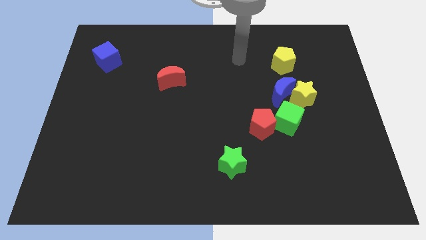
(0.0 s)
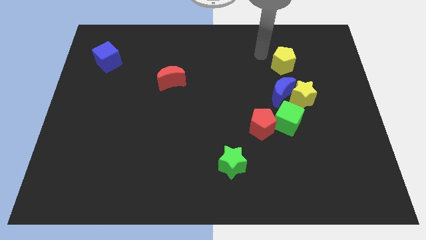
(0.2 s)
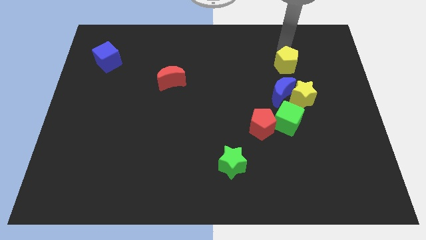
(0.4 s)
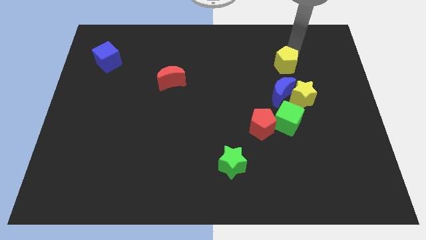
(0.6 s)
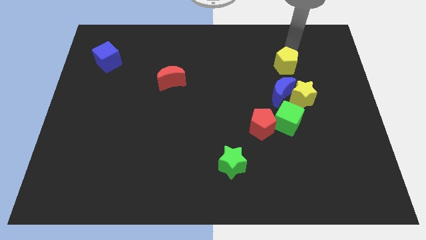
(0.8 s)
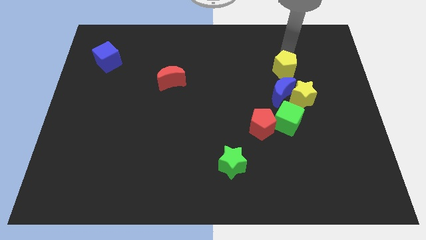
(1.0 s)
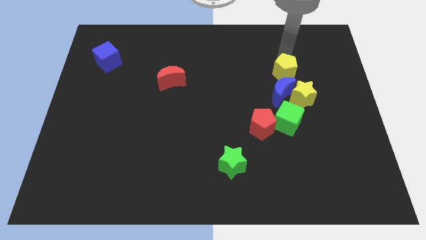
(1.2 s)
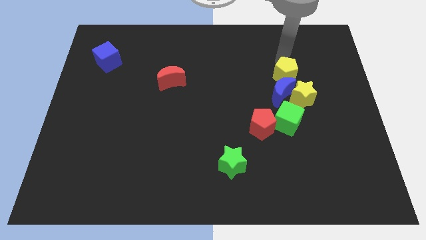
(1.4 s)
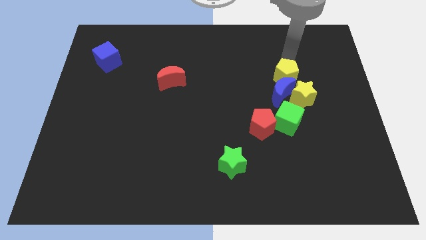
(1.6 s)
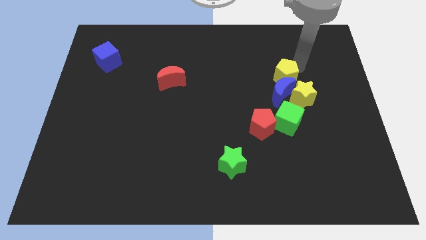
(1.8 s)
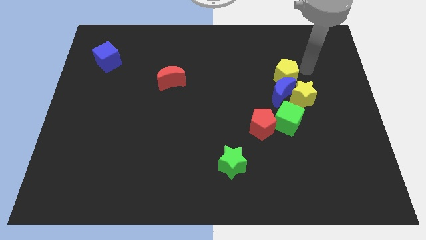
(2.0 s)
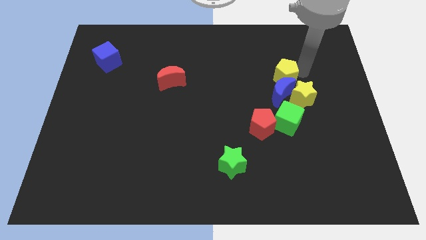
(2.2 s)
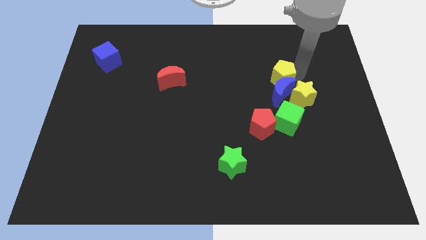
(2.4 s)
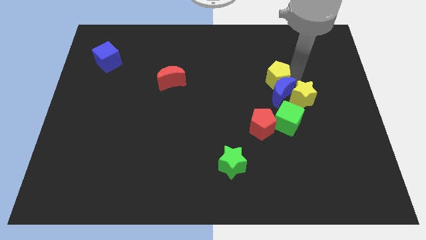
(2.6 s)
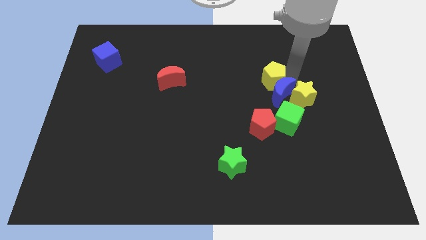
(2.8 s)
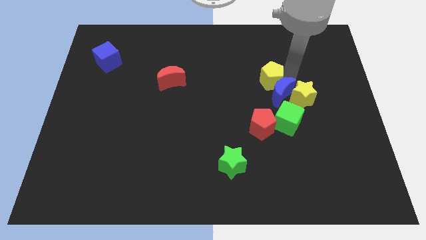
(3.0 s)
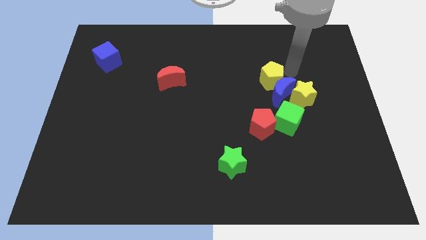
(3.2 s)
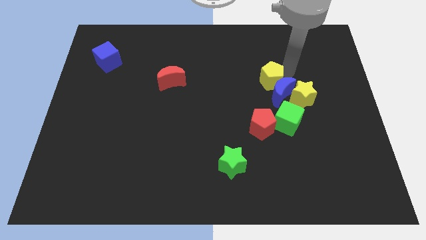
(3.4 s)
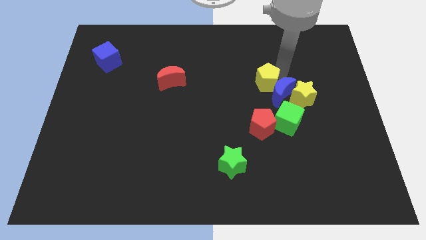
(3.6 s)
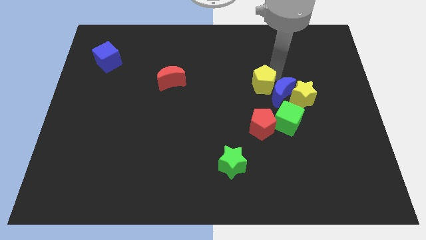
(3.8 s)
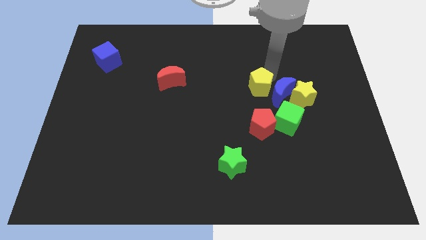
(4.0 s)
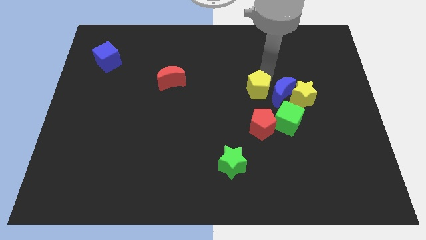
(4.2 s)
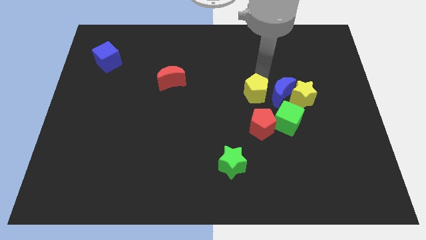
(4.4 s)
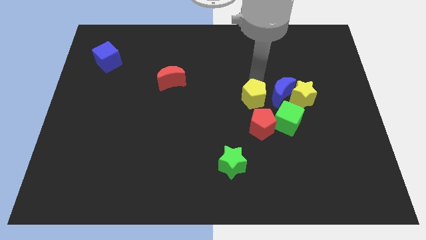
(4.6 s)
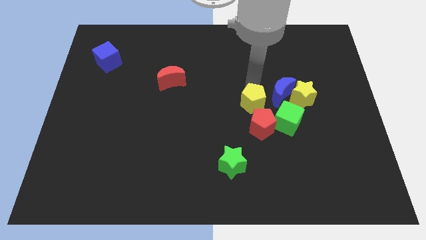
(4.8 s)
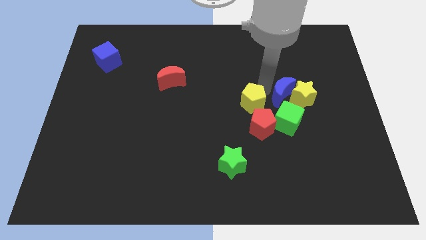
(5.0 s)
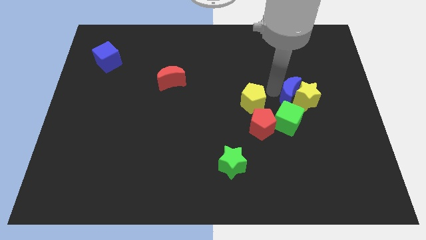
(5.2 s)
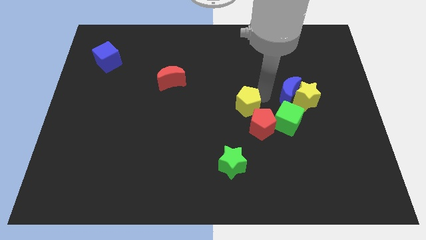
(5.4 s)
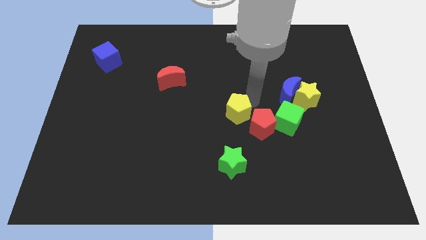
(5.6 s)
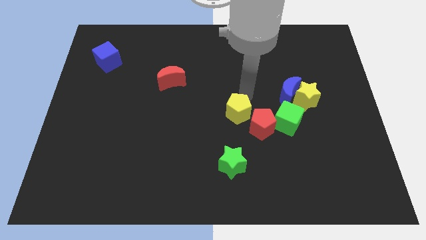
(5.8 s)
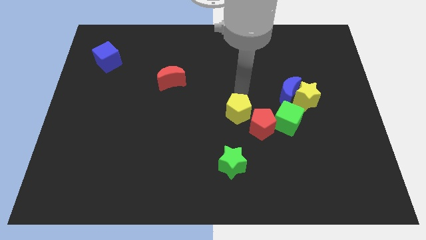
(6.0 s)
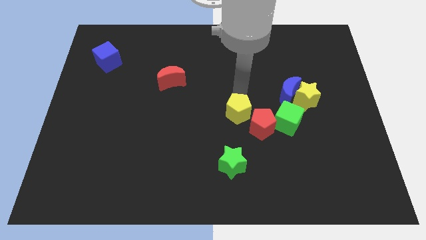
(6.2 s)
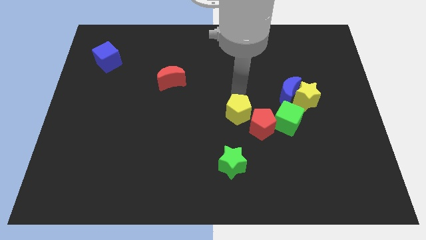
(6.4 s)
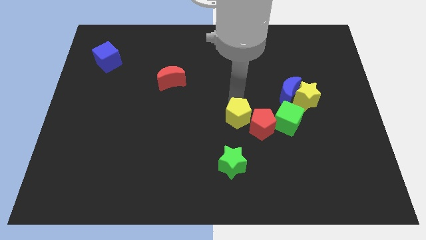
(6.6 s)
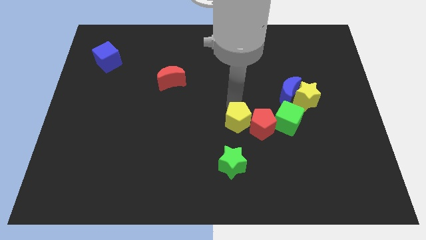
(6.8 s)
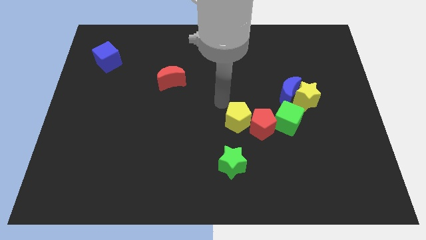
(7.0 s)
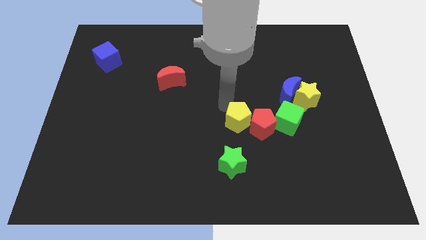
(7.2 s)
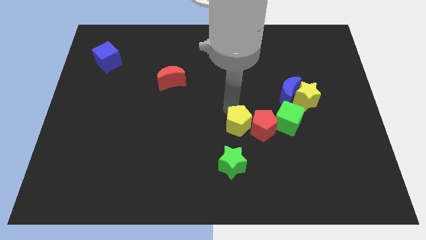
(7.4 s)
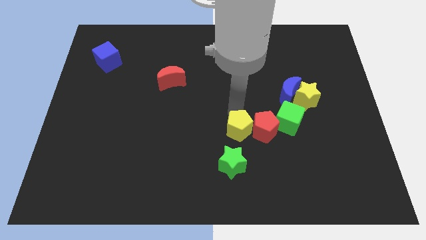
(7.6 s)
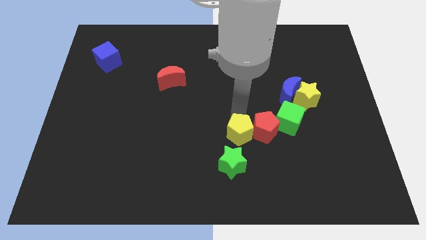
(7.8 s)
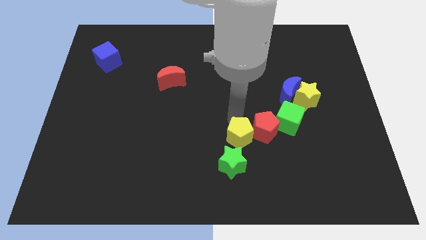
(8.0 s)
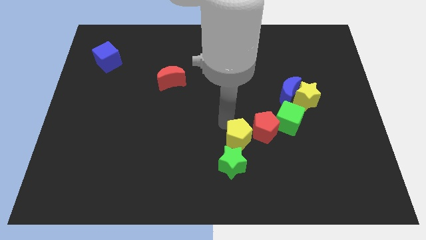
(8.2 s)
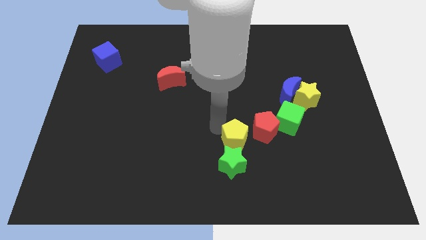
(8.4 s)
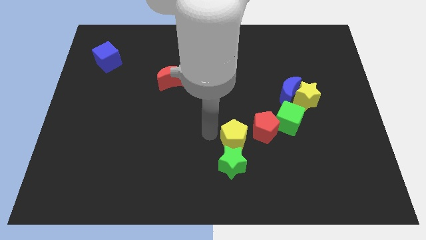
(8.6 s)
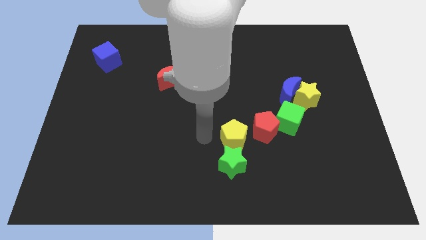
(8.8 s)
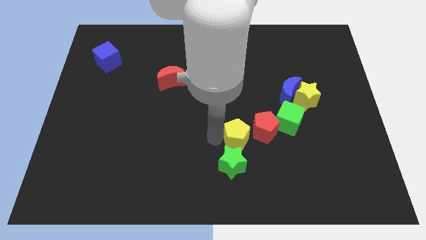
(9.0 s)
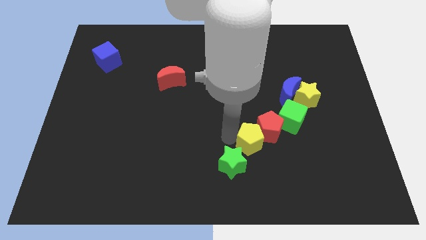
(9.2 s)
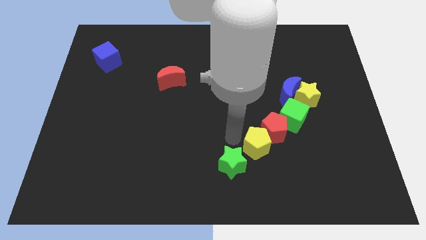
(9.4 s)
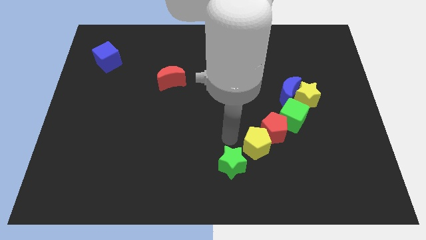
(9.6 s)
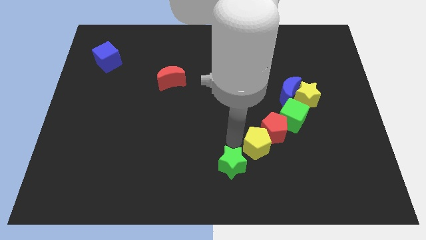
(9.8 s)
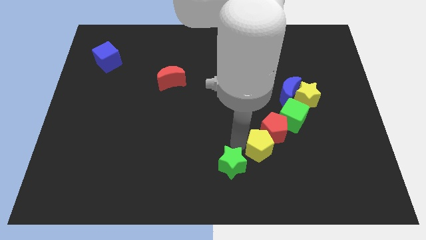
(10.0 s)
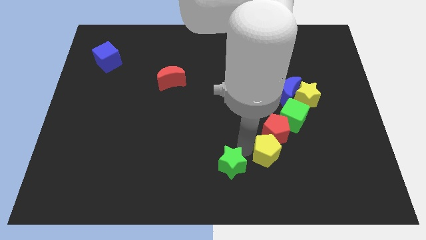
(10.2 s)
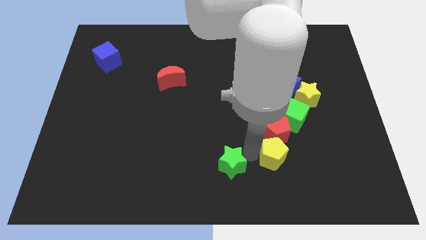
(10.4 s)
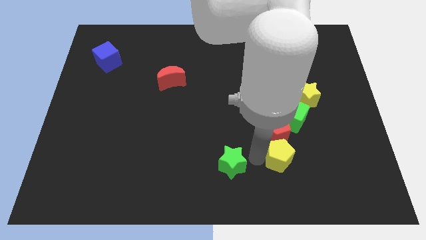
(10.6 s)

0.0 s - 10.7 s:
push the yellow pentagon diagonally down and to the right of the red pentagon

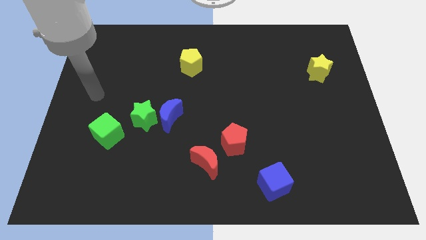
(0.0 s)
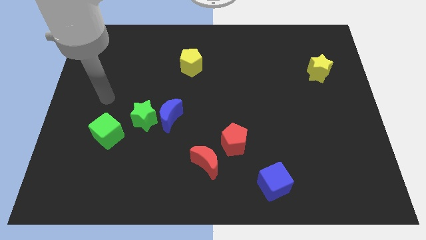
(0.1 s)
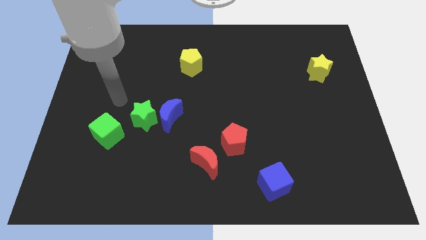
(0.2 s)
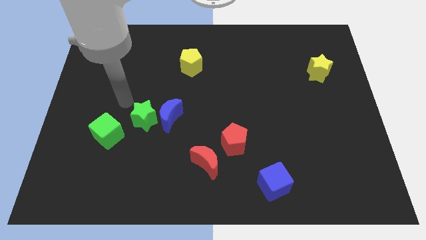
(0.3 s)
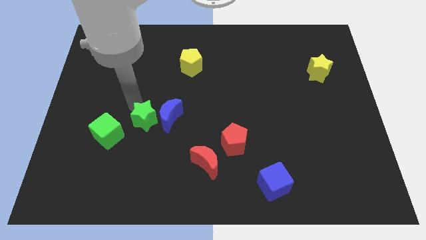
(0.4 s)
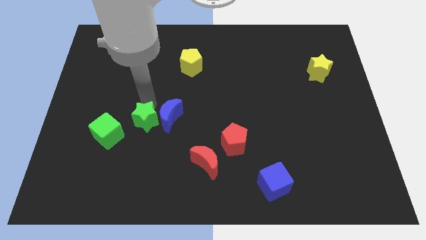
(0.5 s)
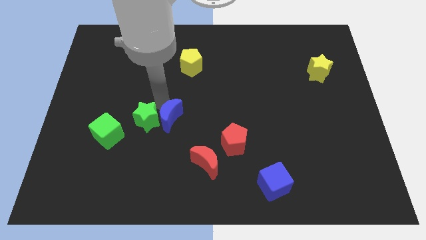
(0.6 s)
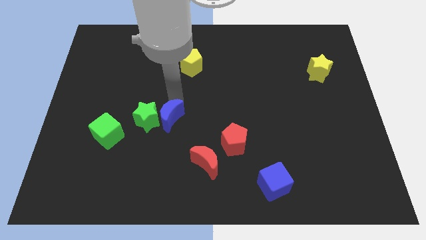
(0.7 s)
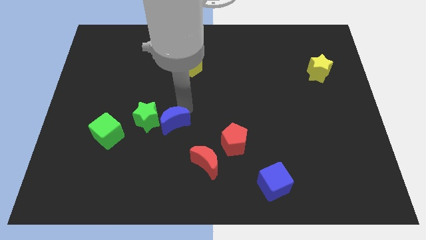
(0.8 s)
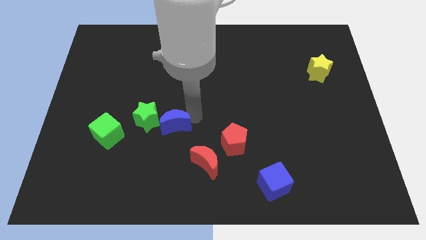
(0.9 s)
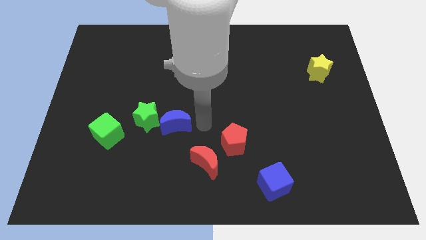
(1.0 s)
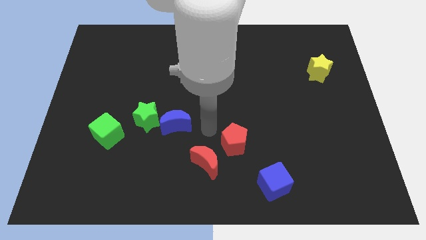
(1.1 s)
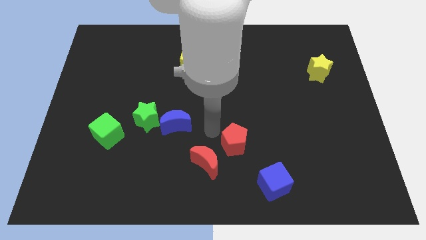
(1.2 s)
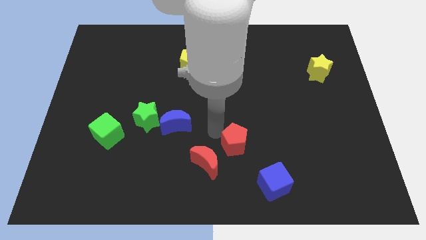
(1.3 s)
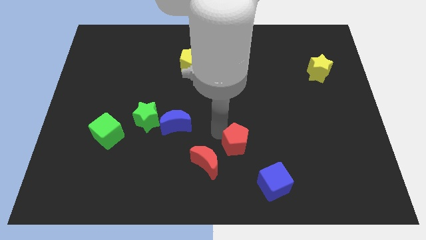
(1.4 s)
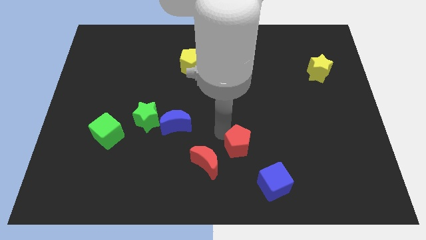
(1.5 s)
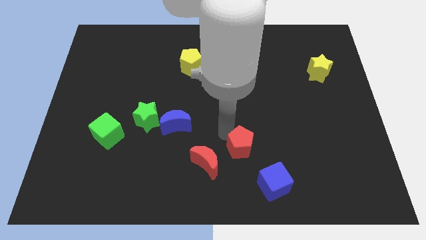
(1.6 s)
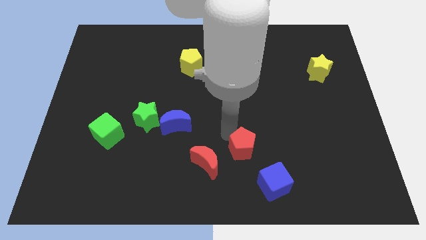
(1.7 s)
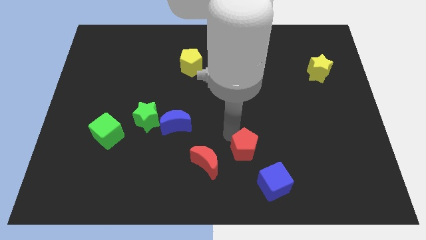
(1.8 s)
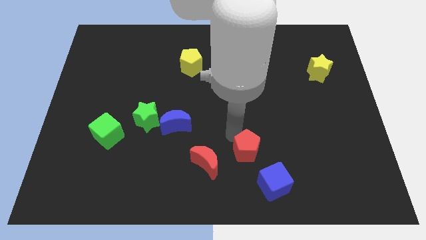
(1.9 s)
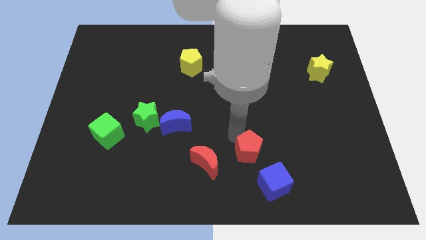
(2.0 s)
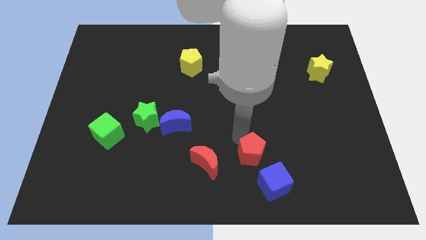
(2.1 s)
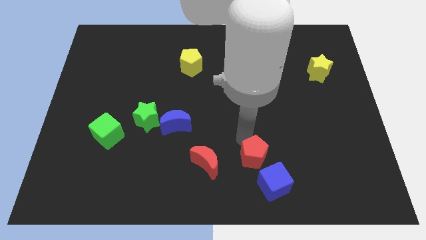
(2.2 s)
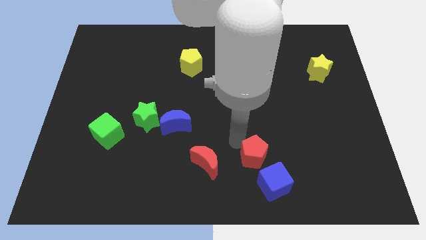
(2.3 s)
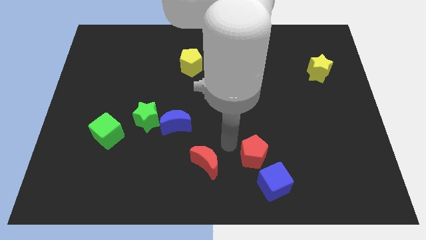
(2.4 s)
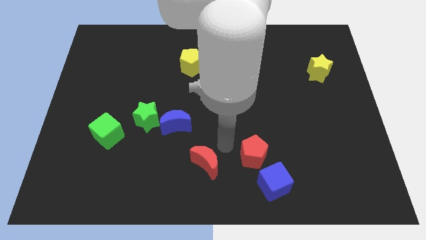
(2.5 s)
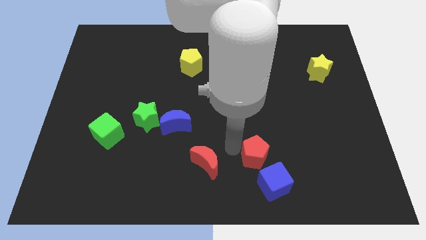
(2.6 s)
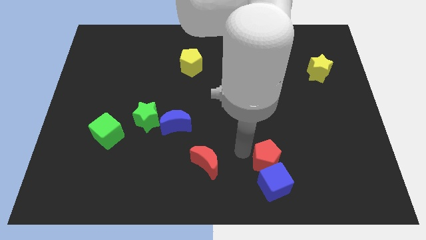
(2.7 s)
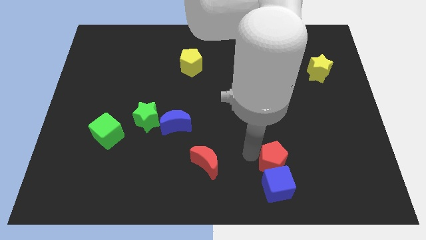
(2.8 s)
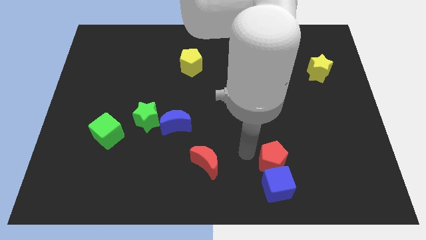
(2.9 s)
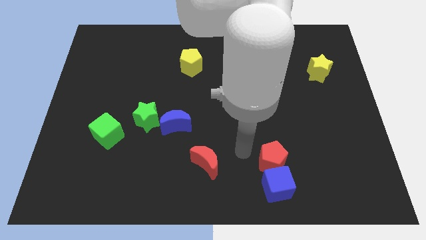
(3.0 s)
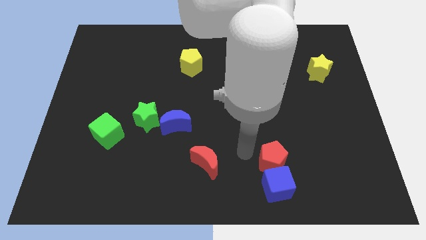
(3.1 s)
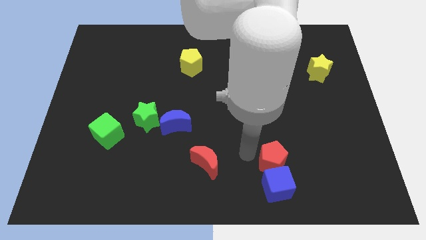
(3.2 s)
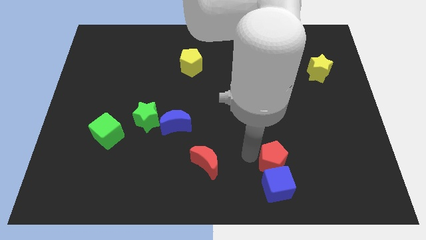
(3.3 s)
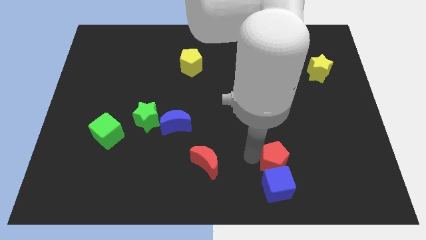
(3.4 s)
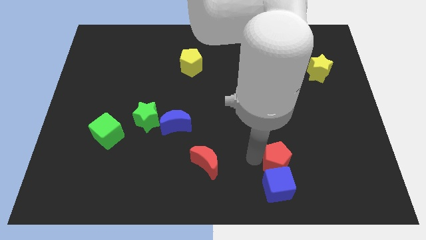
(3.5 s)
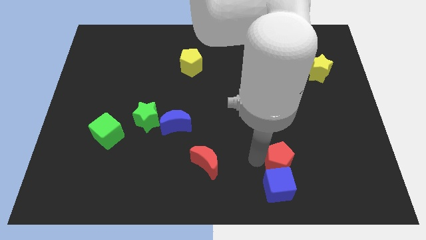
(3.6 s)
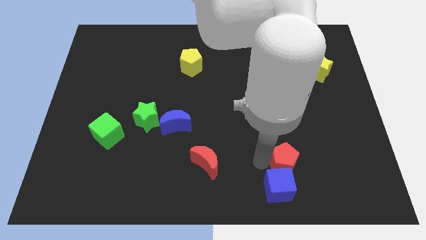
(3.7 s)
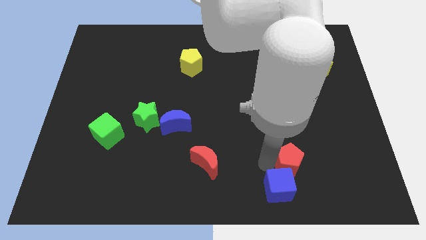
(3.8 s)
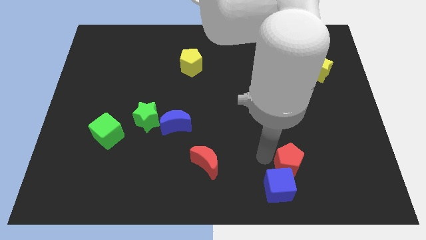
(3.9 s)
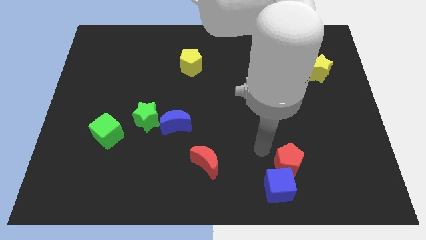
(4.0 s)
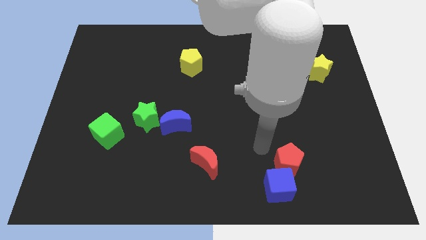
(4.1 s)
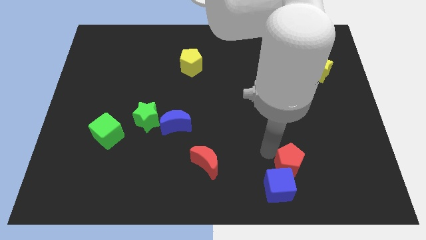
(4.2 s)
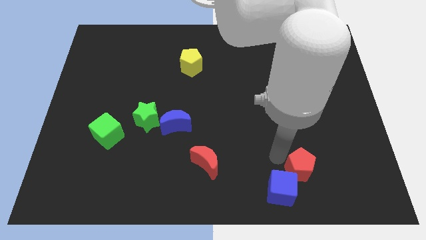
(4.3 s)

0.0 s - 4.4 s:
put the red pentagon right of the blue cube
